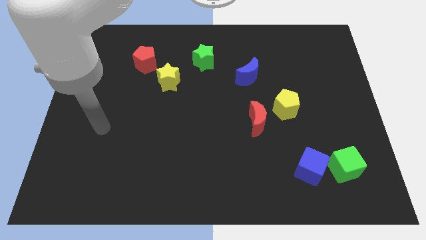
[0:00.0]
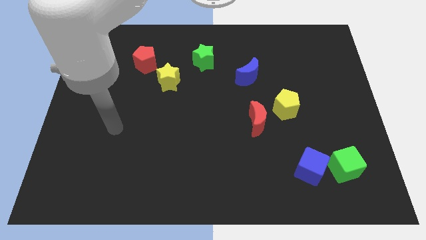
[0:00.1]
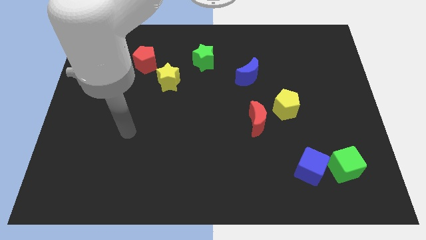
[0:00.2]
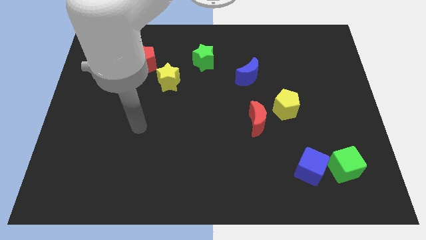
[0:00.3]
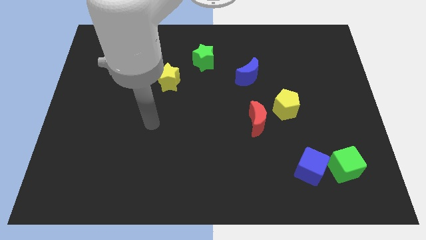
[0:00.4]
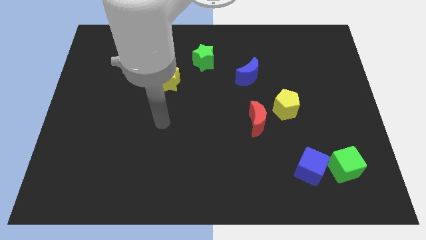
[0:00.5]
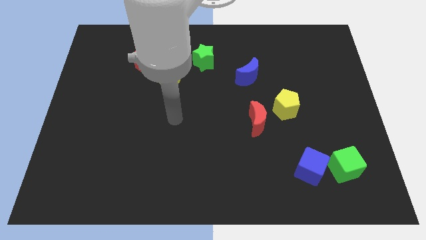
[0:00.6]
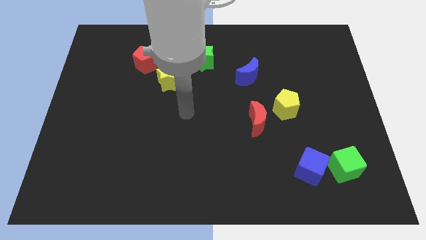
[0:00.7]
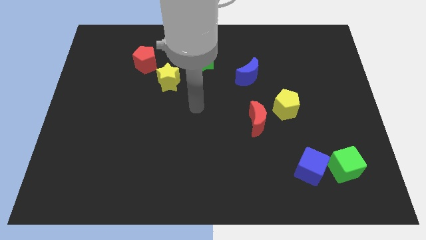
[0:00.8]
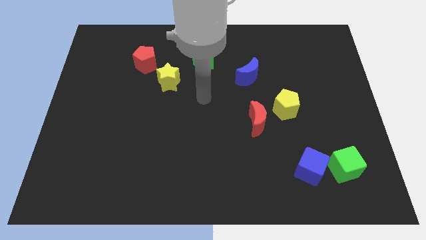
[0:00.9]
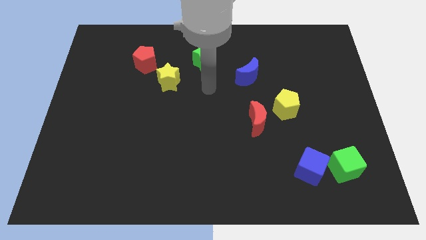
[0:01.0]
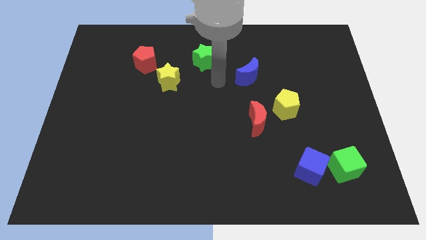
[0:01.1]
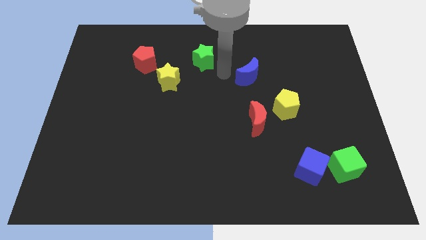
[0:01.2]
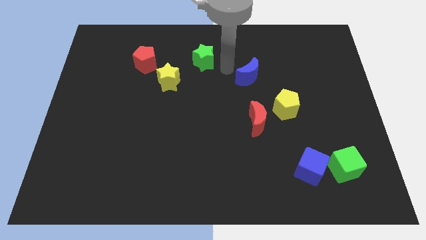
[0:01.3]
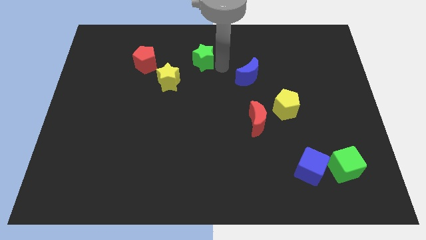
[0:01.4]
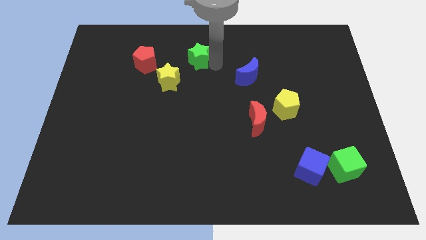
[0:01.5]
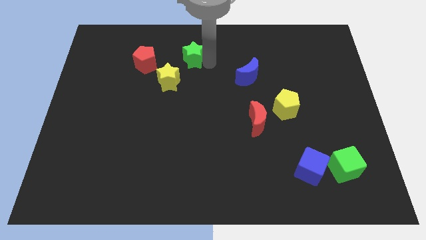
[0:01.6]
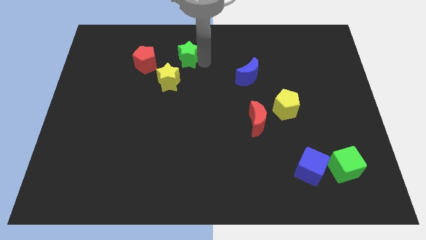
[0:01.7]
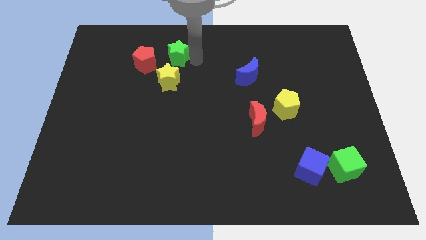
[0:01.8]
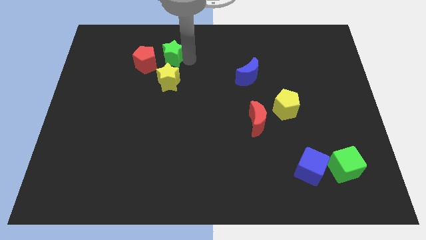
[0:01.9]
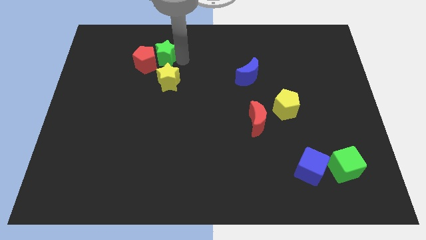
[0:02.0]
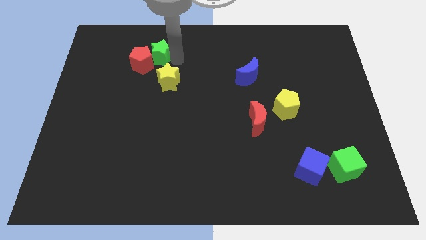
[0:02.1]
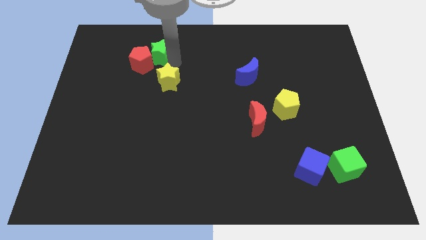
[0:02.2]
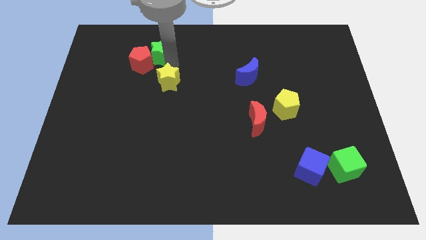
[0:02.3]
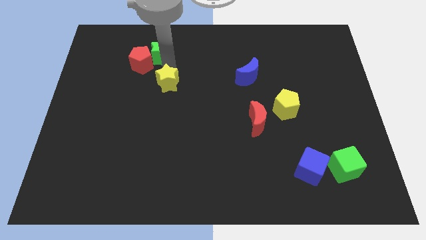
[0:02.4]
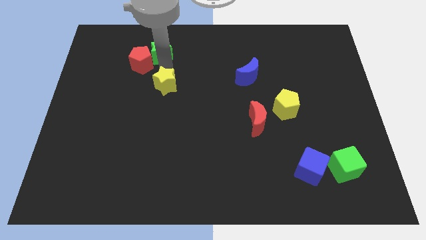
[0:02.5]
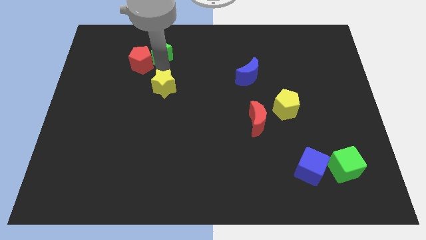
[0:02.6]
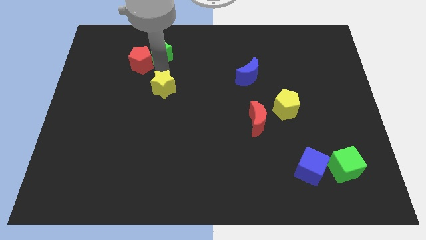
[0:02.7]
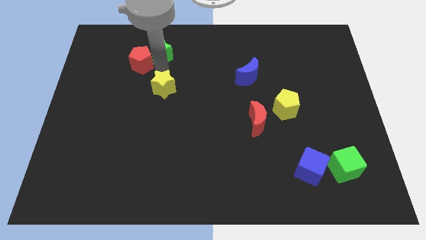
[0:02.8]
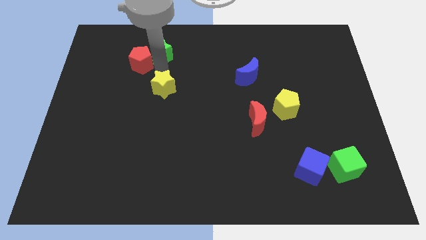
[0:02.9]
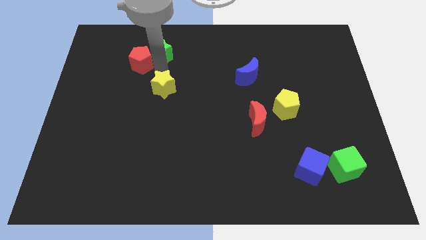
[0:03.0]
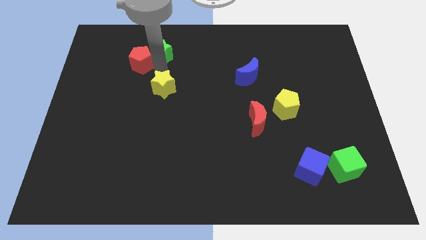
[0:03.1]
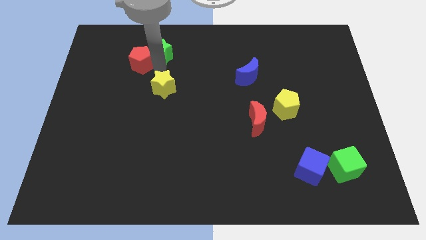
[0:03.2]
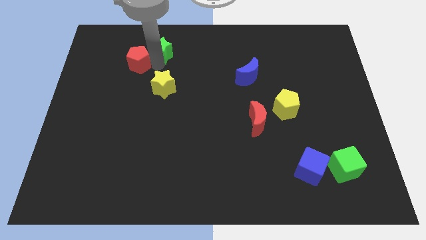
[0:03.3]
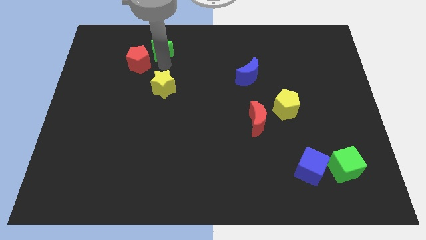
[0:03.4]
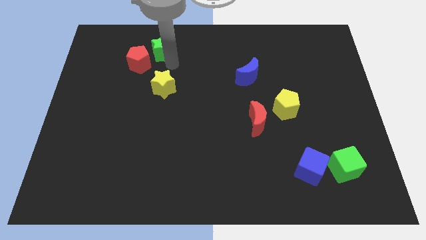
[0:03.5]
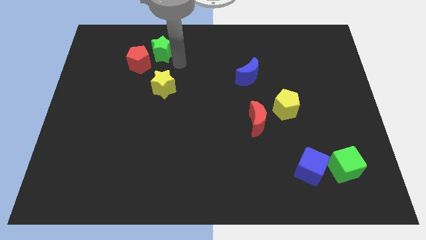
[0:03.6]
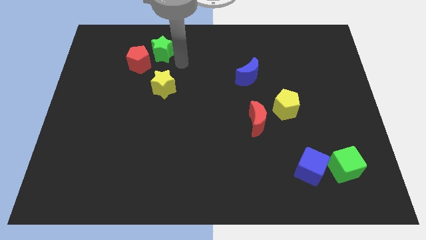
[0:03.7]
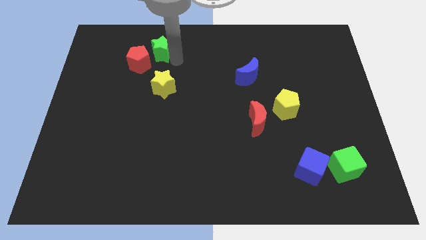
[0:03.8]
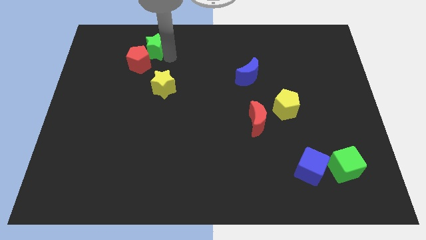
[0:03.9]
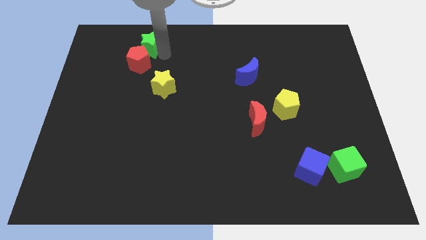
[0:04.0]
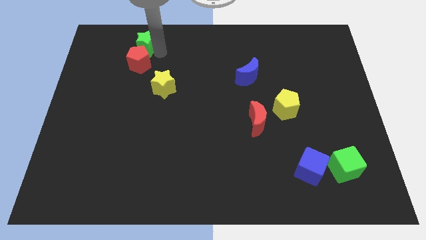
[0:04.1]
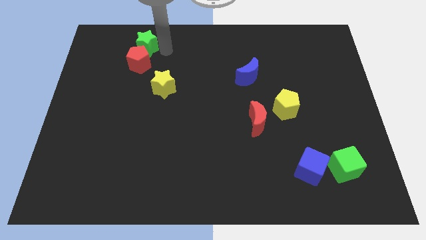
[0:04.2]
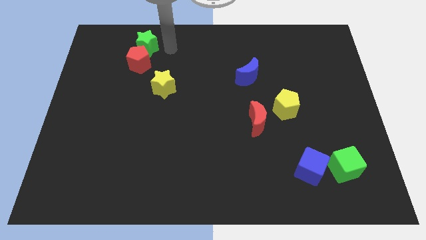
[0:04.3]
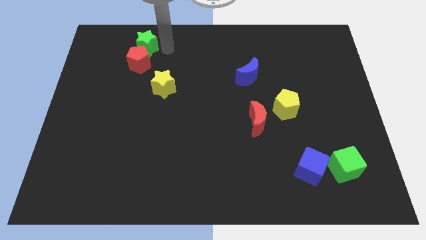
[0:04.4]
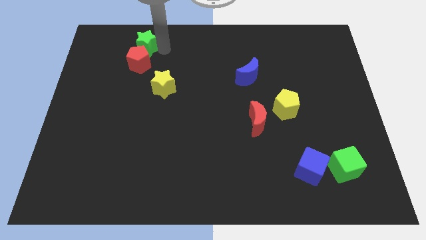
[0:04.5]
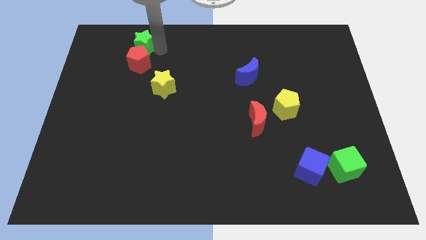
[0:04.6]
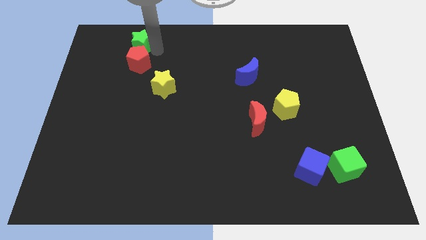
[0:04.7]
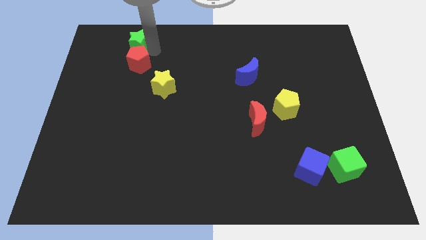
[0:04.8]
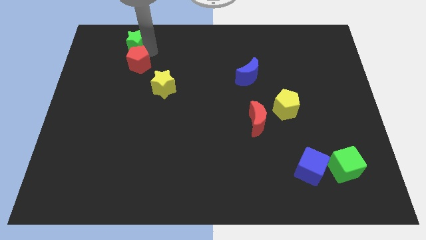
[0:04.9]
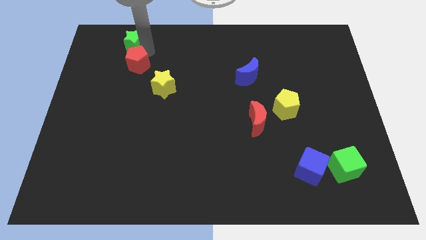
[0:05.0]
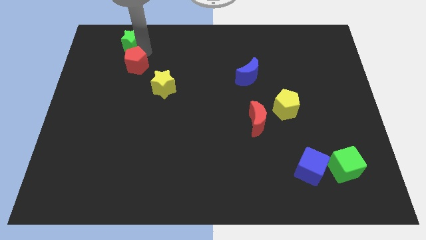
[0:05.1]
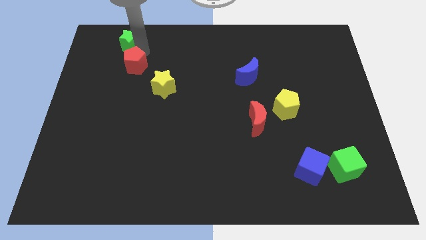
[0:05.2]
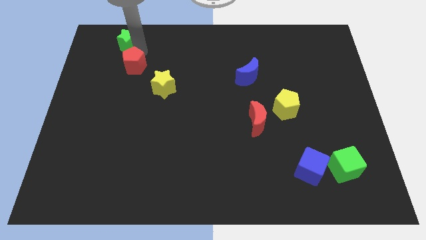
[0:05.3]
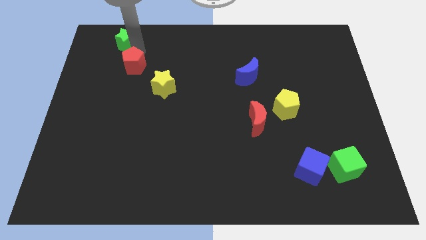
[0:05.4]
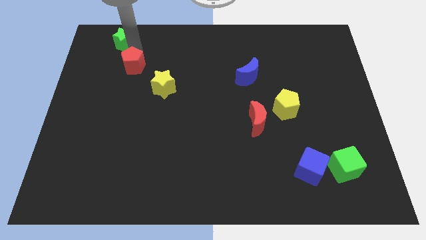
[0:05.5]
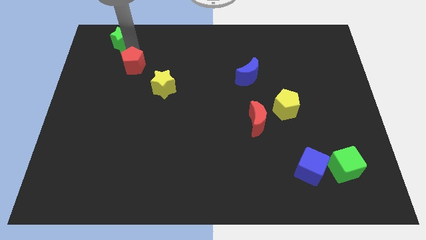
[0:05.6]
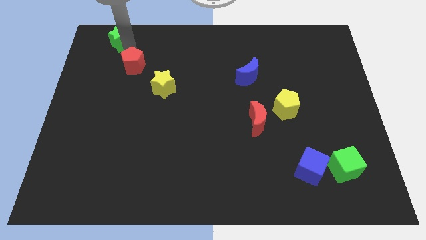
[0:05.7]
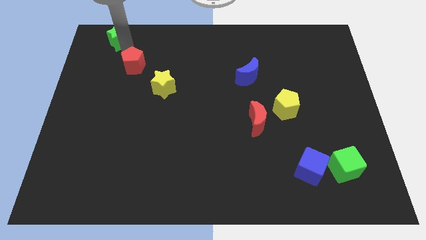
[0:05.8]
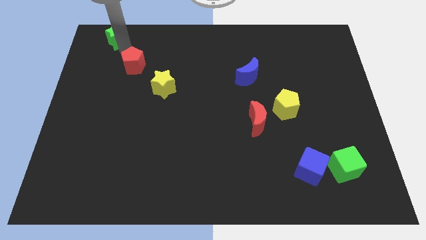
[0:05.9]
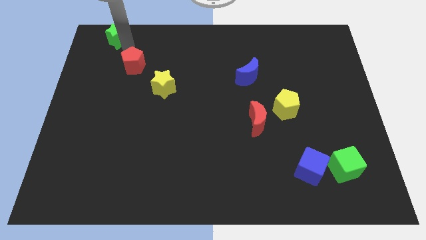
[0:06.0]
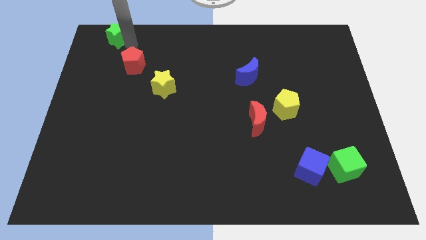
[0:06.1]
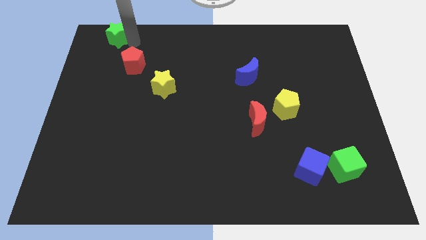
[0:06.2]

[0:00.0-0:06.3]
push the green star to the top left corner
